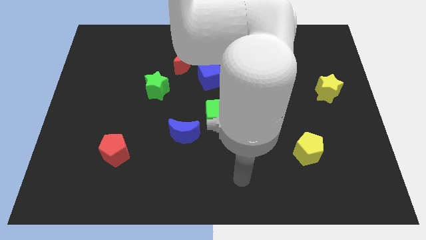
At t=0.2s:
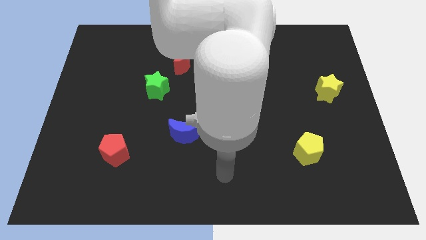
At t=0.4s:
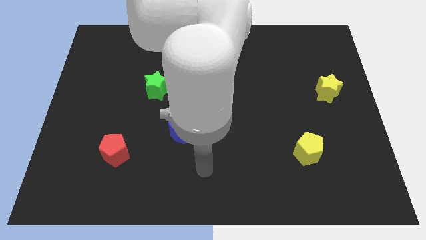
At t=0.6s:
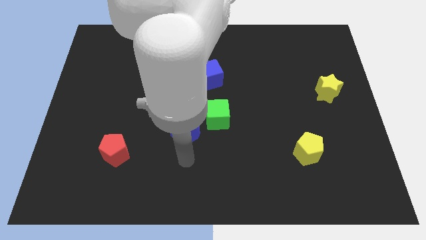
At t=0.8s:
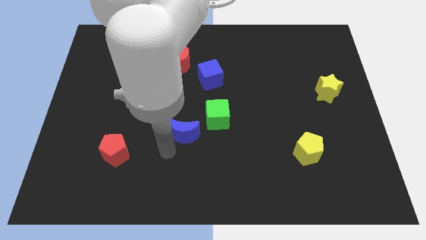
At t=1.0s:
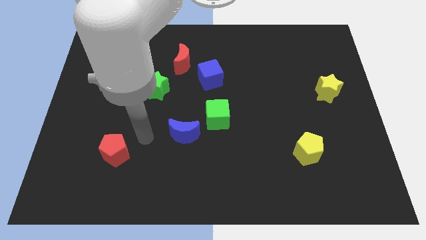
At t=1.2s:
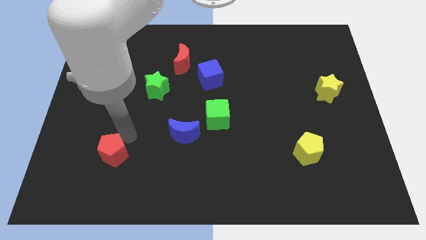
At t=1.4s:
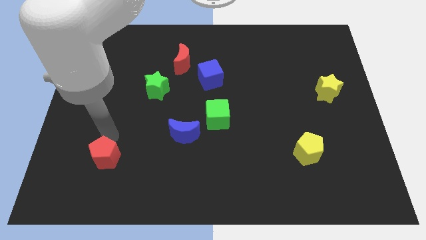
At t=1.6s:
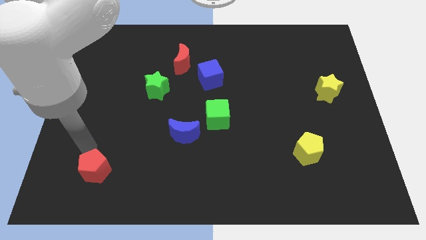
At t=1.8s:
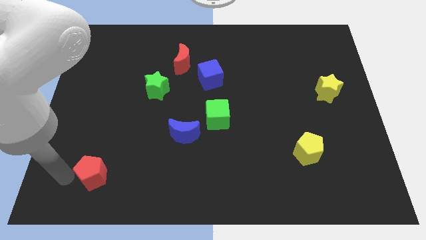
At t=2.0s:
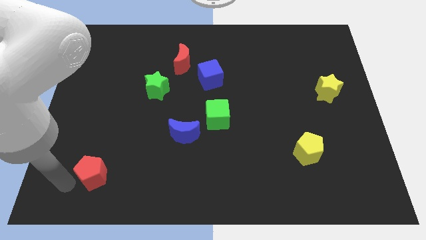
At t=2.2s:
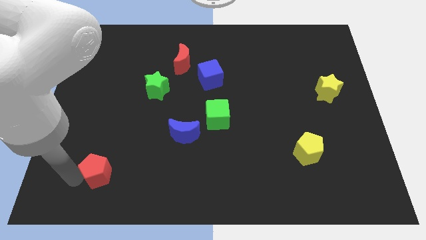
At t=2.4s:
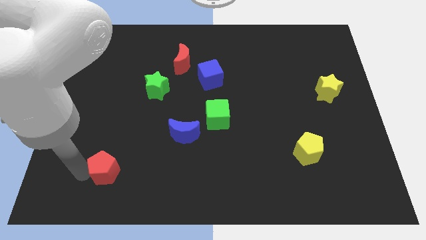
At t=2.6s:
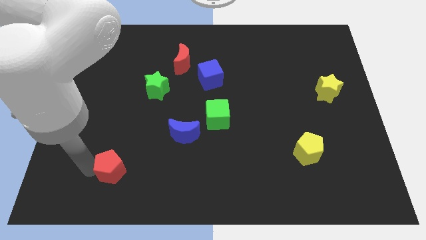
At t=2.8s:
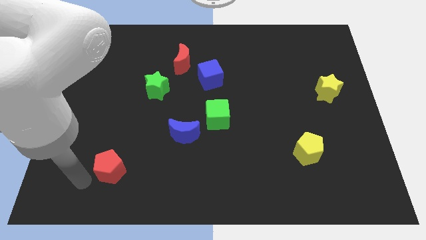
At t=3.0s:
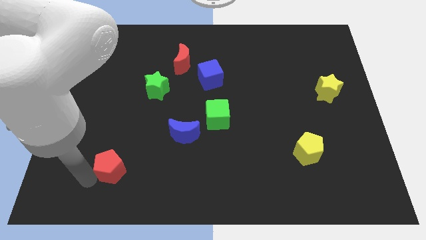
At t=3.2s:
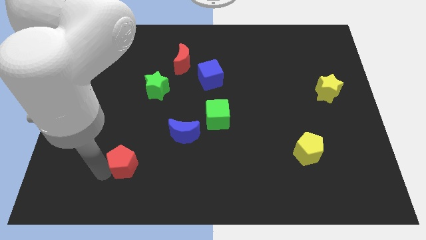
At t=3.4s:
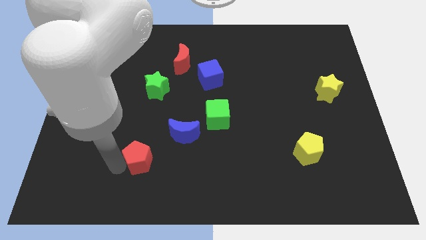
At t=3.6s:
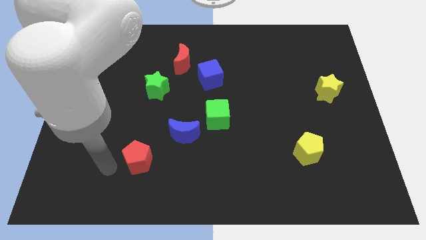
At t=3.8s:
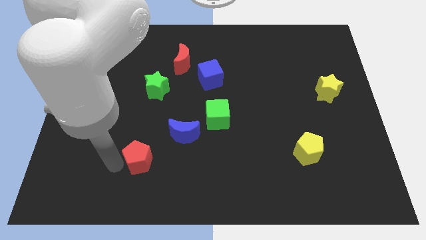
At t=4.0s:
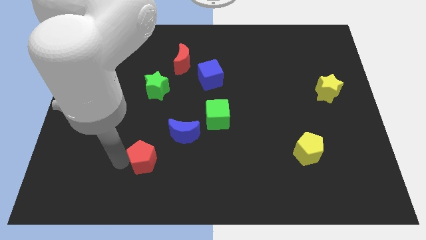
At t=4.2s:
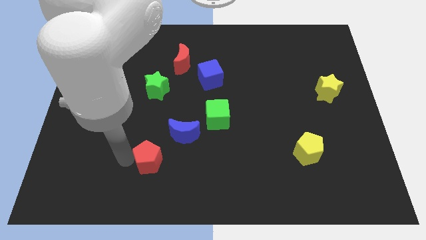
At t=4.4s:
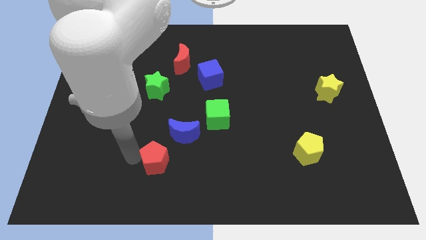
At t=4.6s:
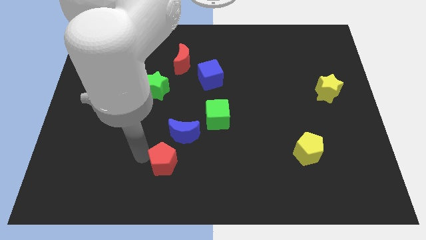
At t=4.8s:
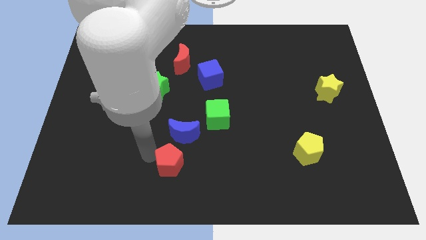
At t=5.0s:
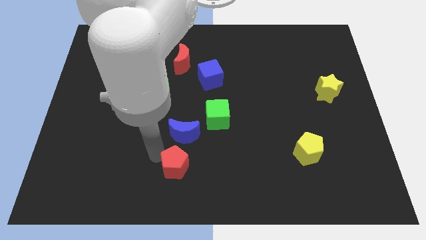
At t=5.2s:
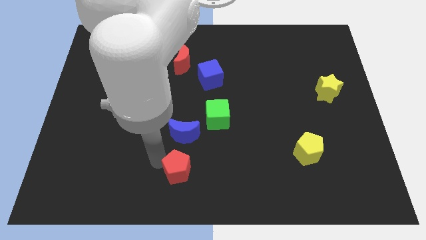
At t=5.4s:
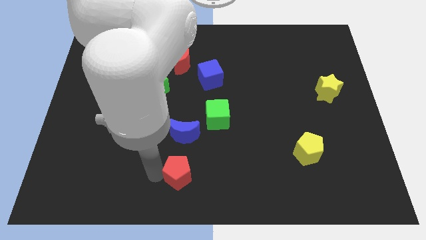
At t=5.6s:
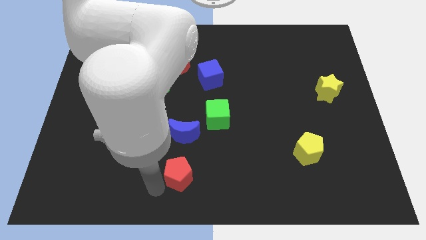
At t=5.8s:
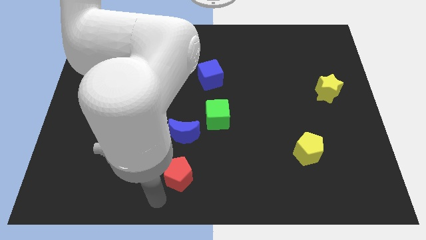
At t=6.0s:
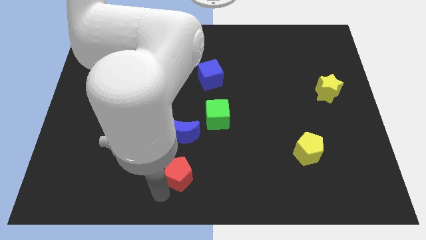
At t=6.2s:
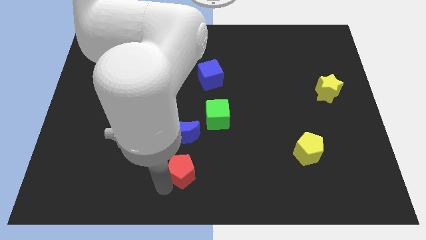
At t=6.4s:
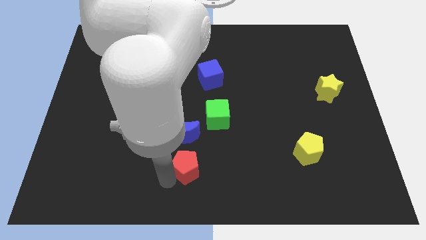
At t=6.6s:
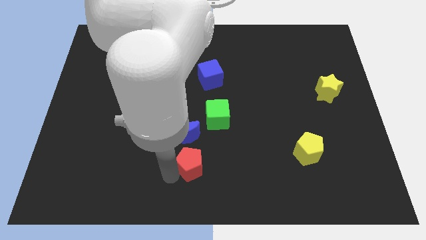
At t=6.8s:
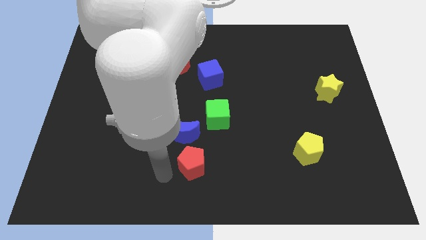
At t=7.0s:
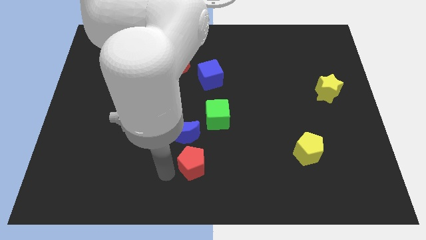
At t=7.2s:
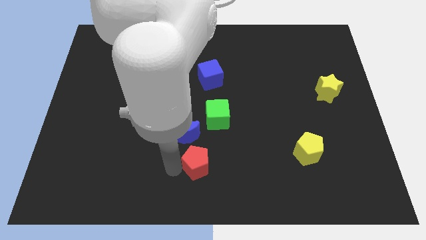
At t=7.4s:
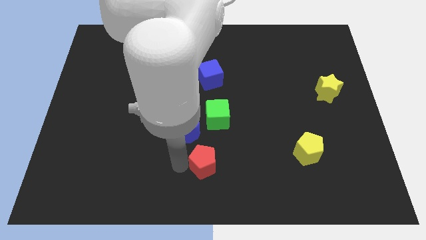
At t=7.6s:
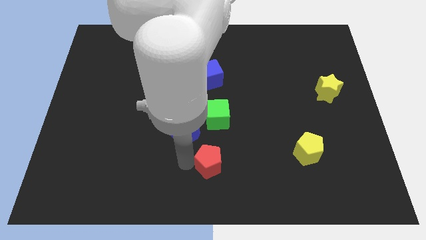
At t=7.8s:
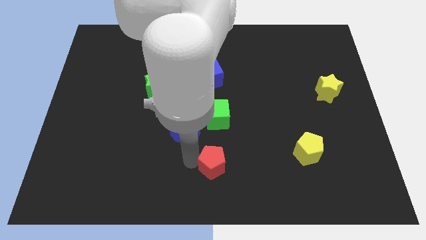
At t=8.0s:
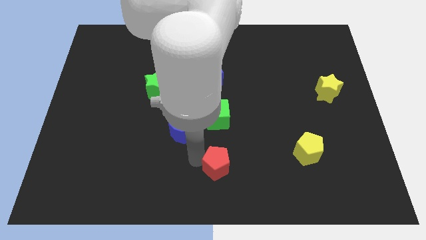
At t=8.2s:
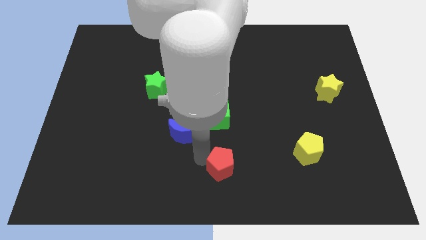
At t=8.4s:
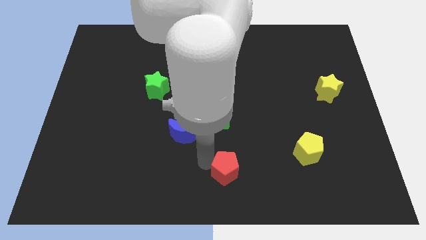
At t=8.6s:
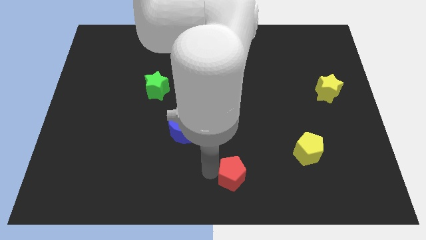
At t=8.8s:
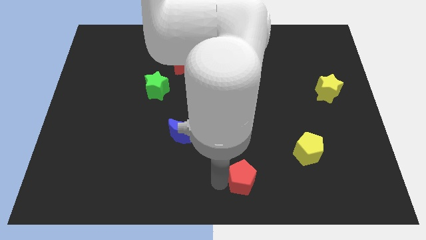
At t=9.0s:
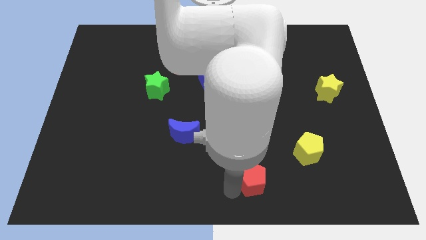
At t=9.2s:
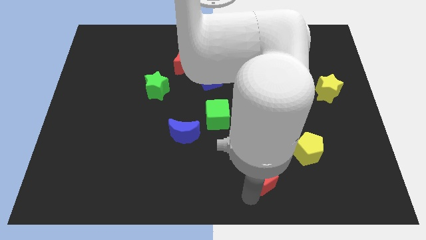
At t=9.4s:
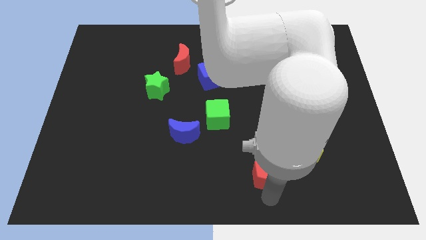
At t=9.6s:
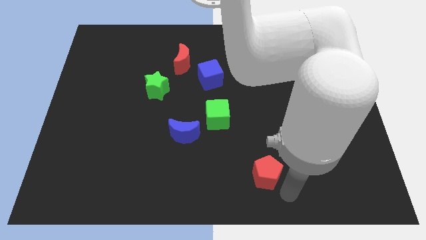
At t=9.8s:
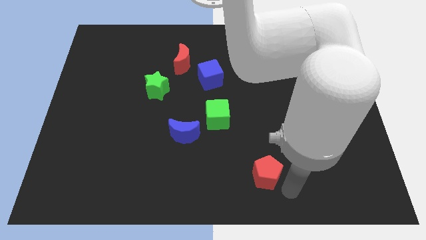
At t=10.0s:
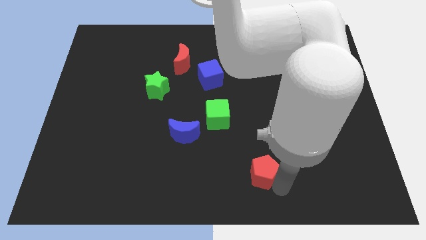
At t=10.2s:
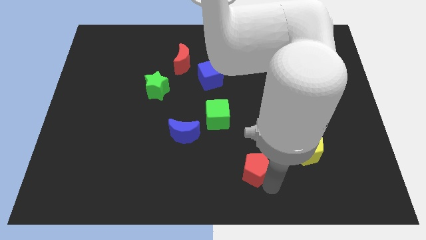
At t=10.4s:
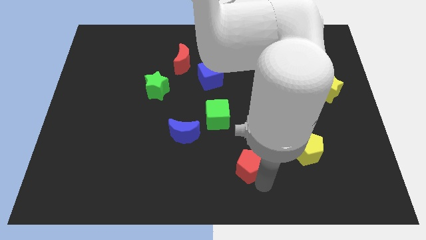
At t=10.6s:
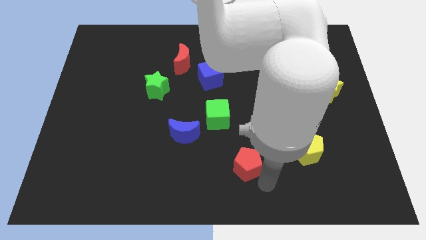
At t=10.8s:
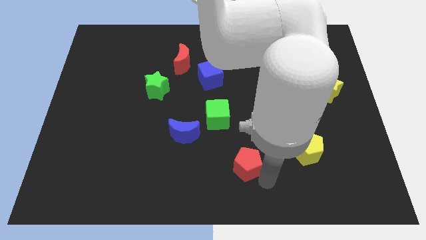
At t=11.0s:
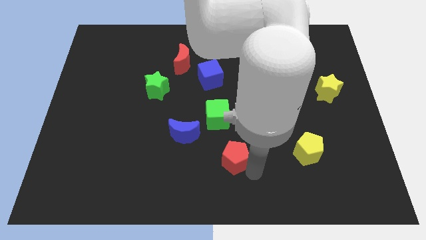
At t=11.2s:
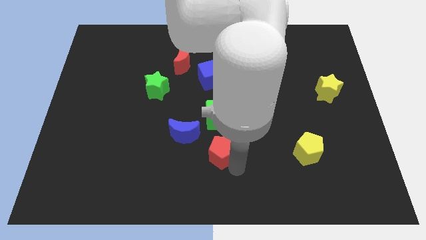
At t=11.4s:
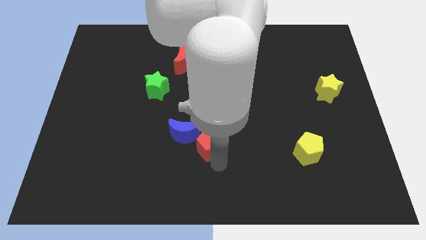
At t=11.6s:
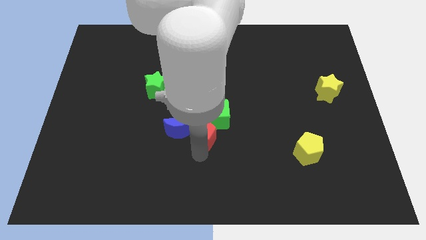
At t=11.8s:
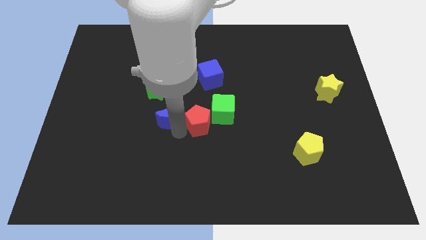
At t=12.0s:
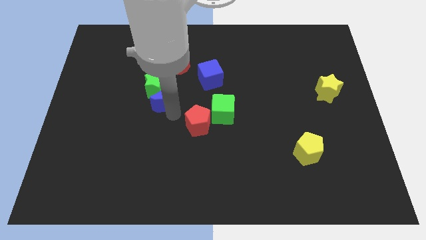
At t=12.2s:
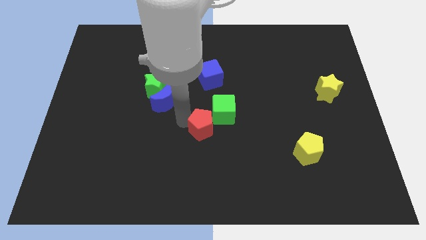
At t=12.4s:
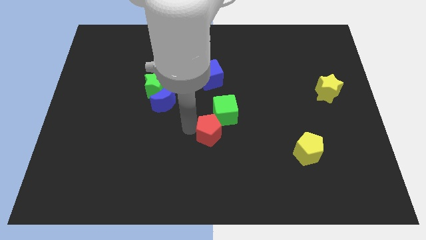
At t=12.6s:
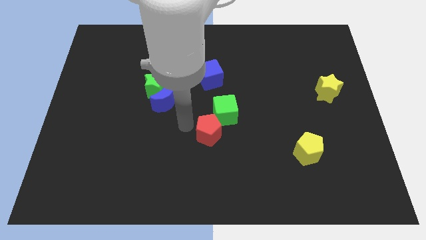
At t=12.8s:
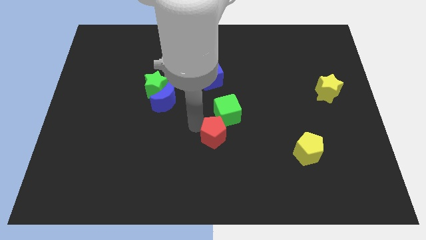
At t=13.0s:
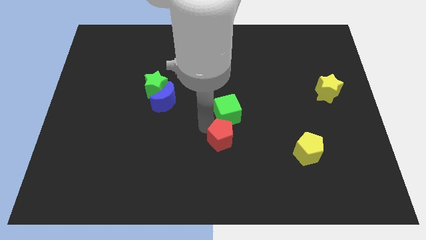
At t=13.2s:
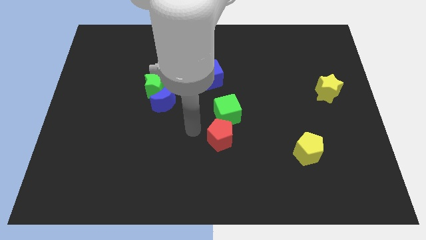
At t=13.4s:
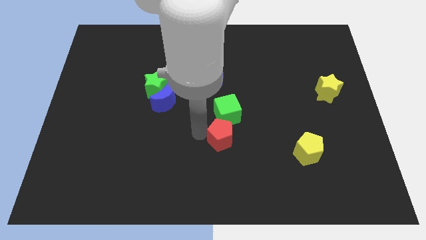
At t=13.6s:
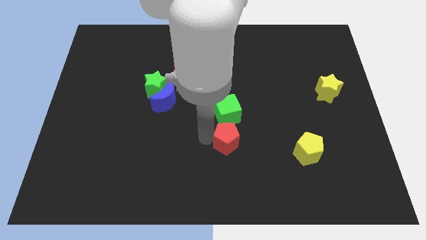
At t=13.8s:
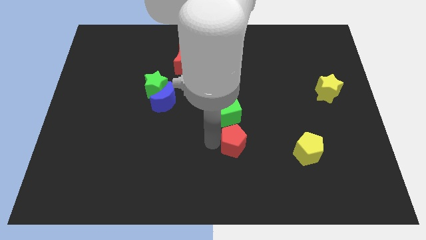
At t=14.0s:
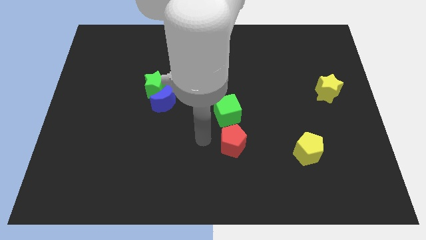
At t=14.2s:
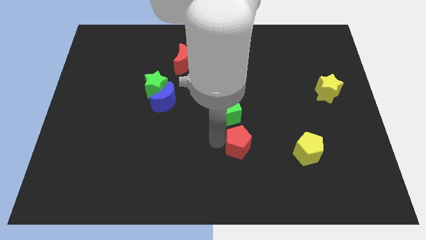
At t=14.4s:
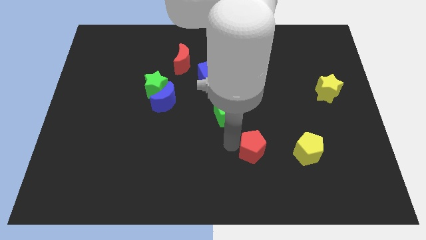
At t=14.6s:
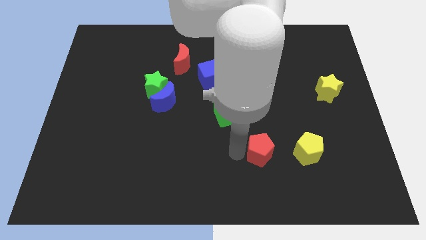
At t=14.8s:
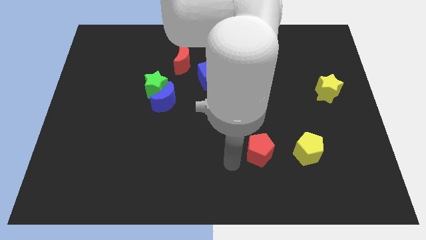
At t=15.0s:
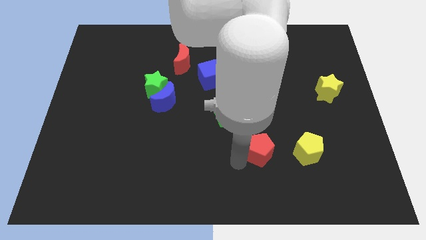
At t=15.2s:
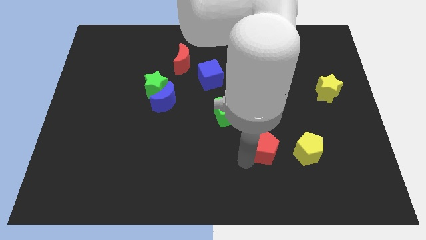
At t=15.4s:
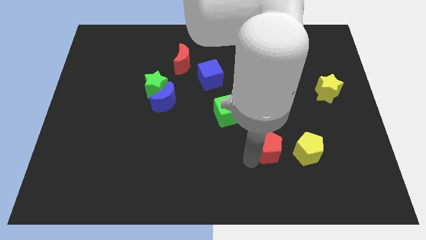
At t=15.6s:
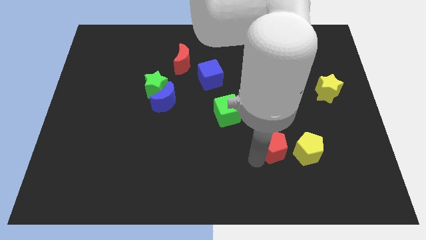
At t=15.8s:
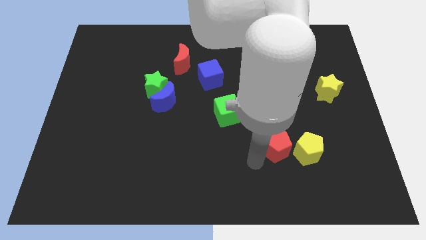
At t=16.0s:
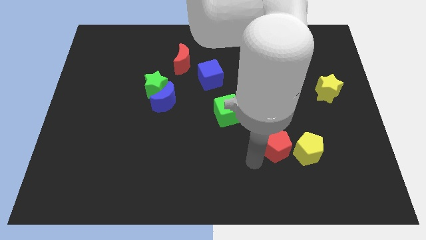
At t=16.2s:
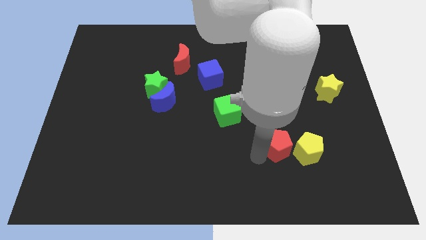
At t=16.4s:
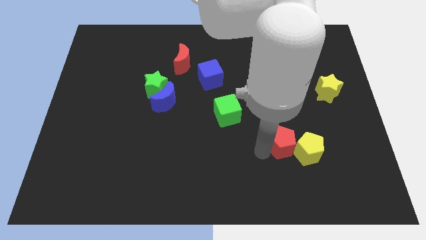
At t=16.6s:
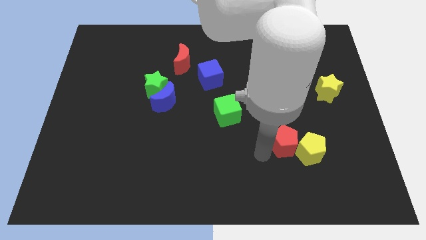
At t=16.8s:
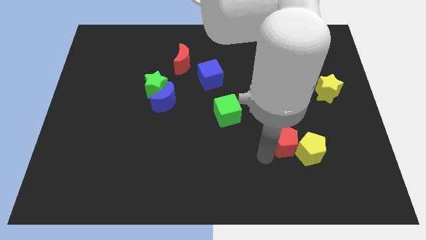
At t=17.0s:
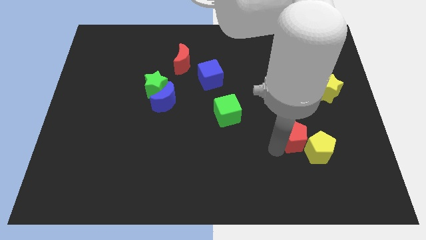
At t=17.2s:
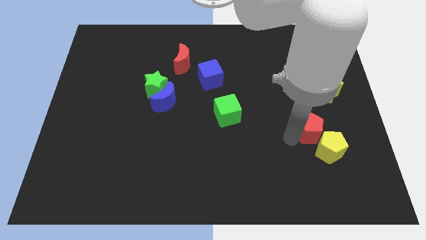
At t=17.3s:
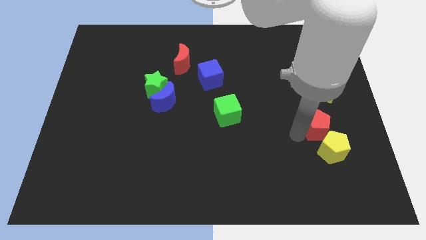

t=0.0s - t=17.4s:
move the red pentagon to the bottom of the yellow star
